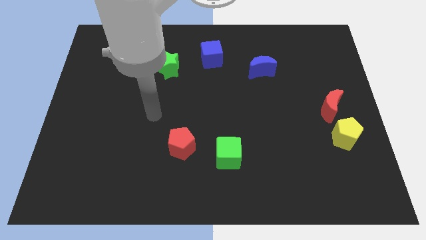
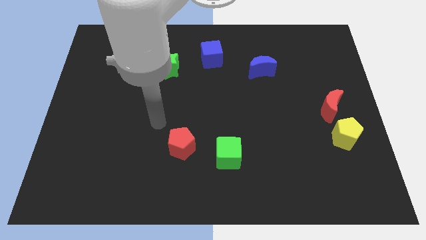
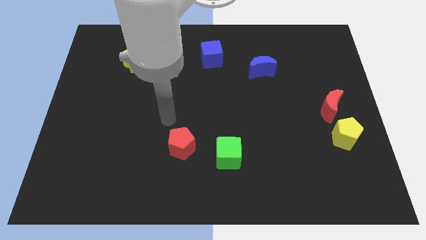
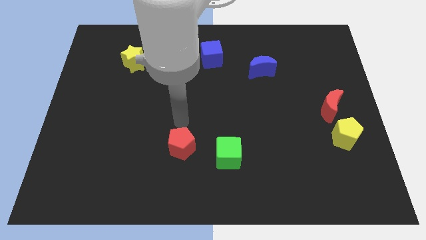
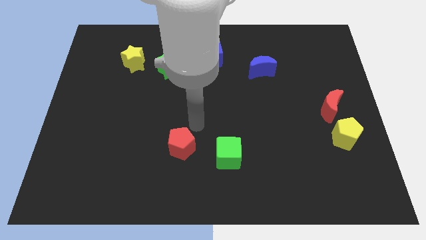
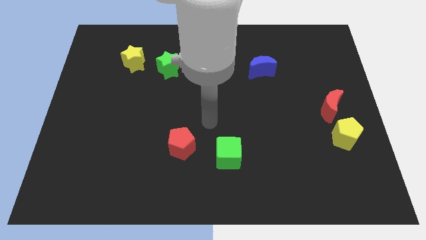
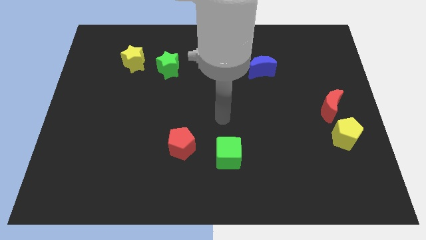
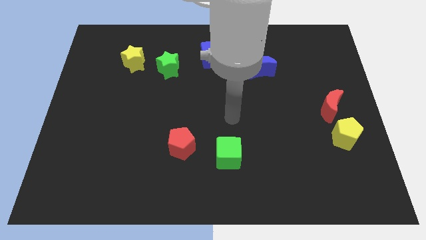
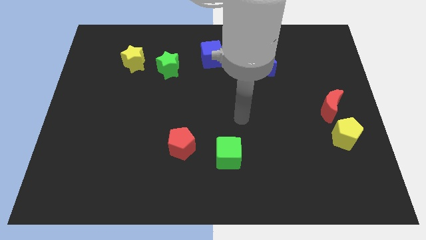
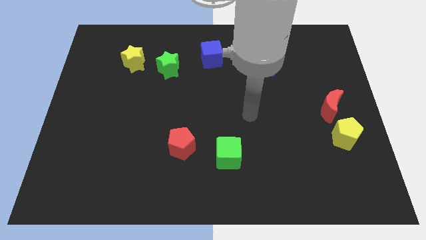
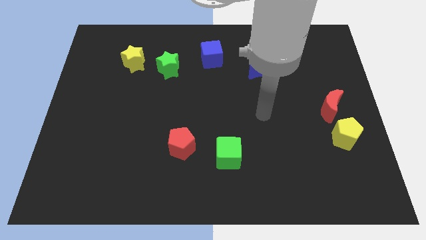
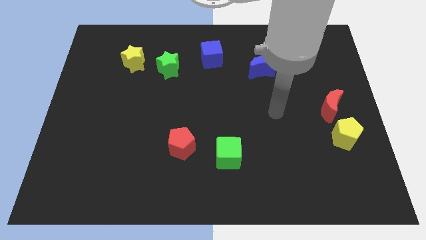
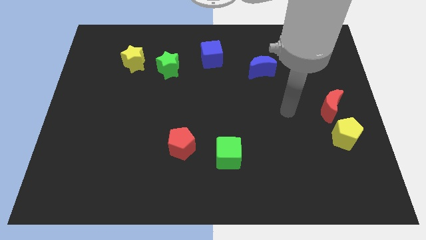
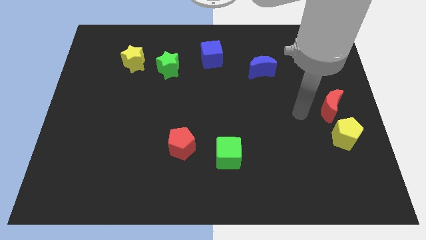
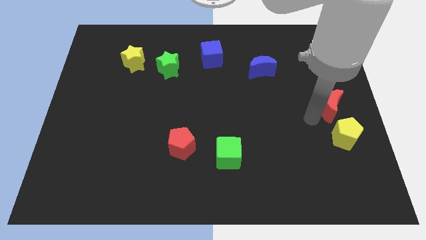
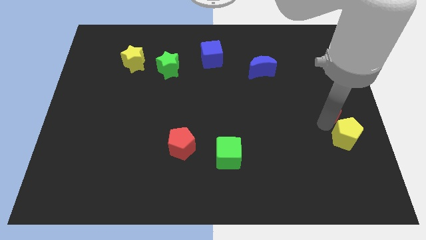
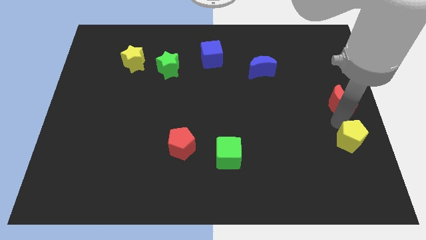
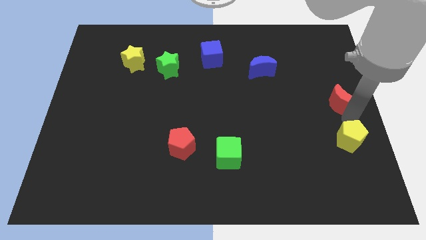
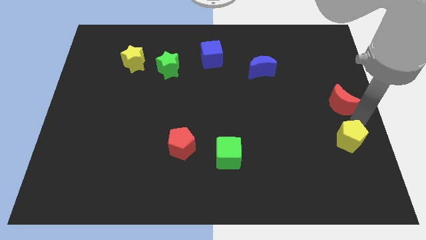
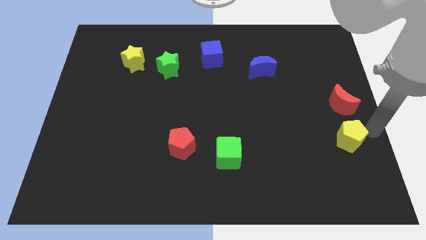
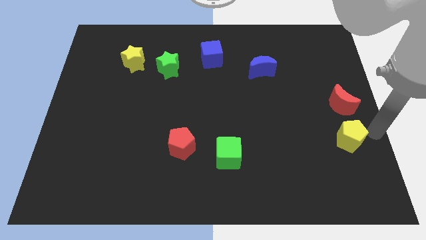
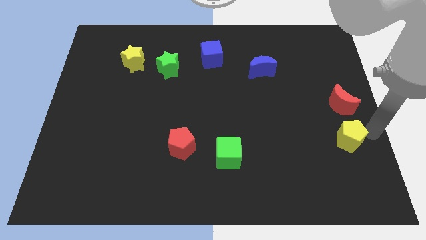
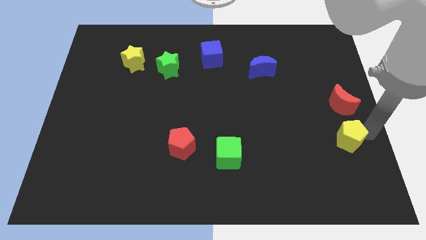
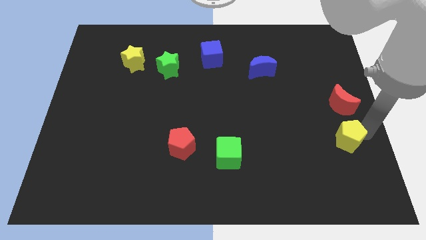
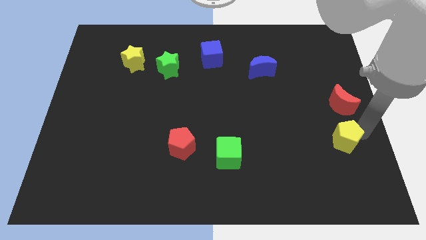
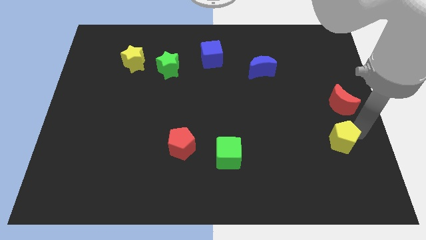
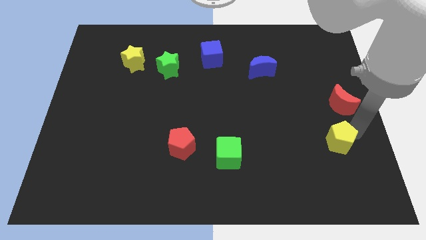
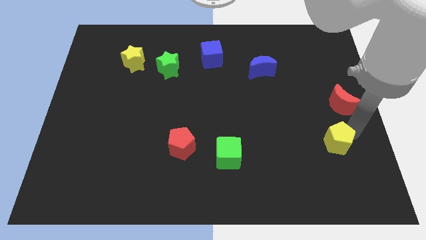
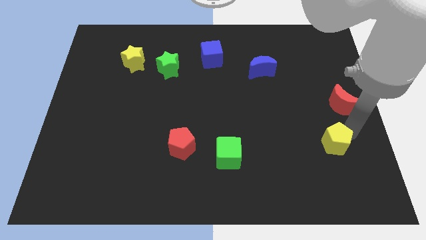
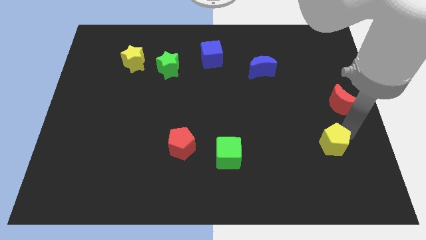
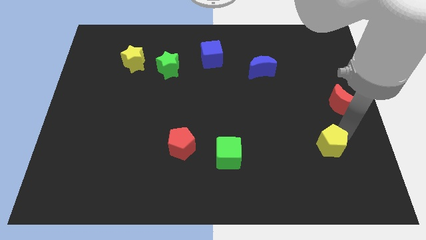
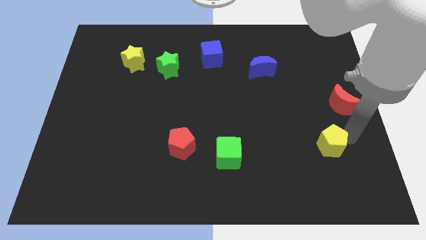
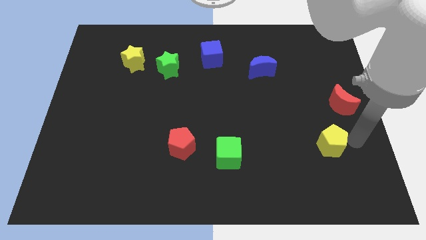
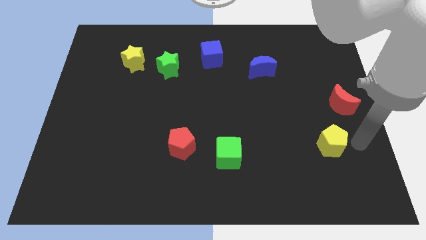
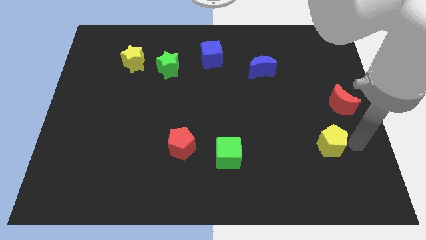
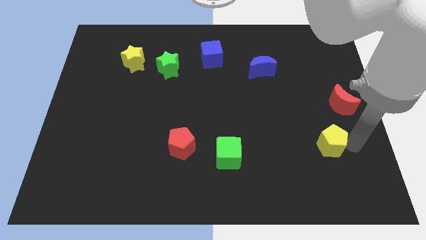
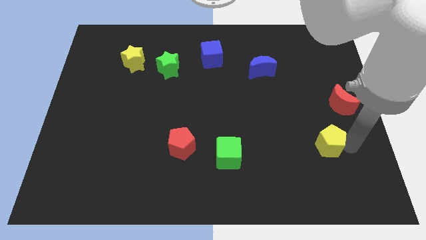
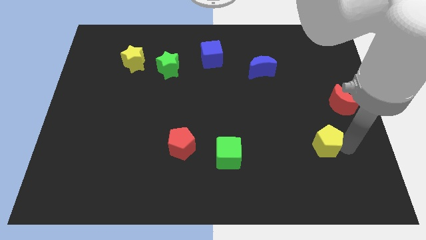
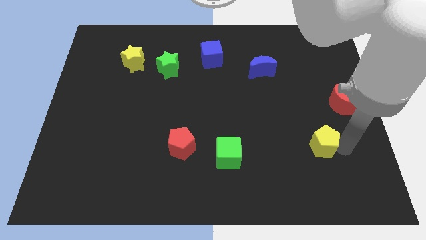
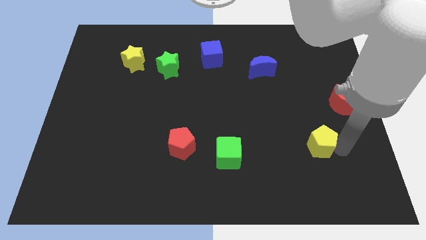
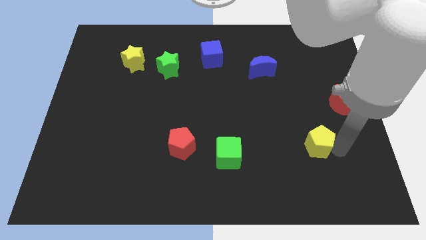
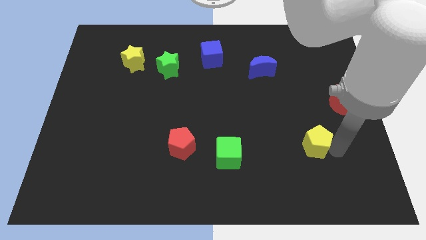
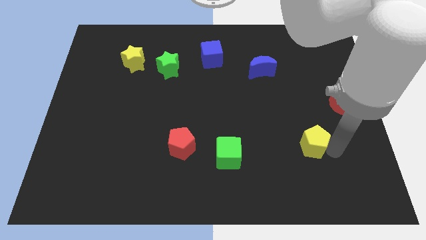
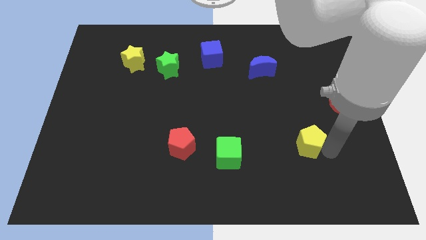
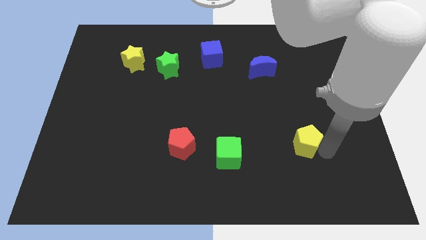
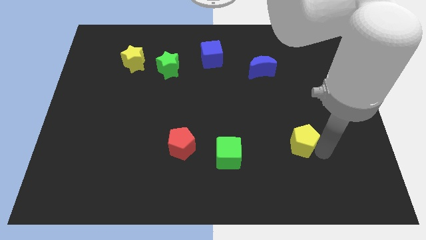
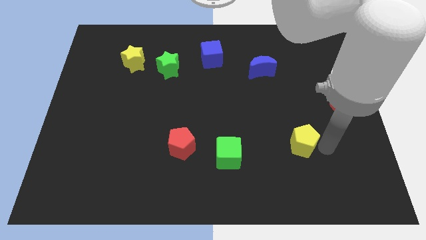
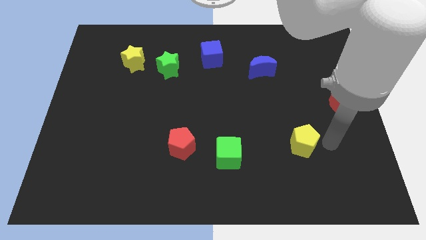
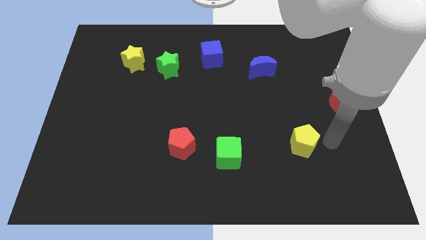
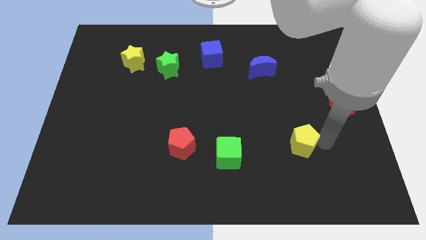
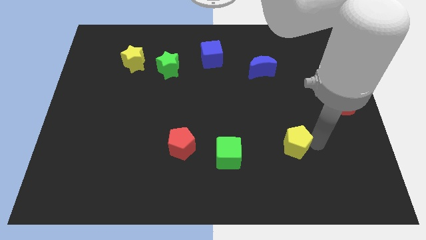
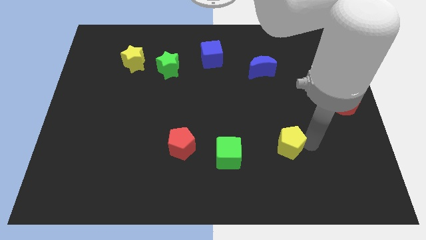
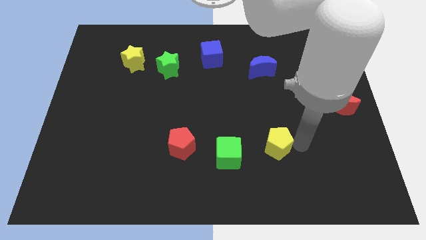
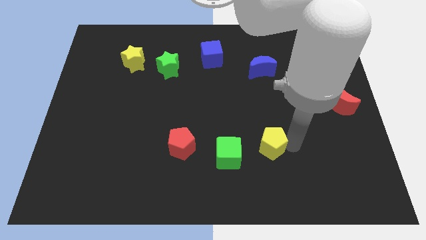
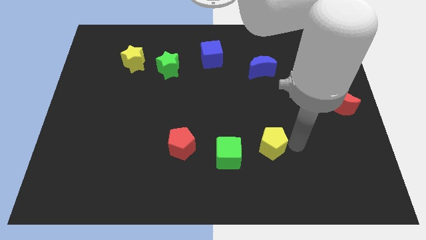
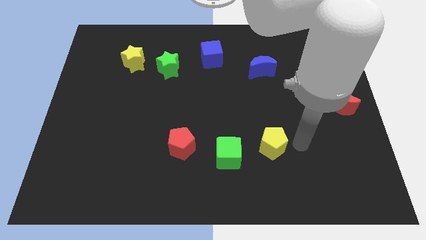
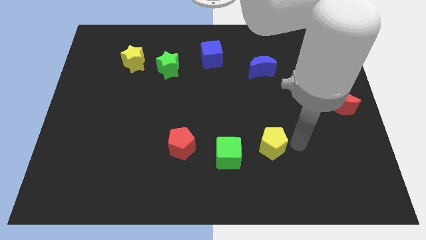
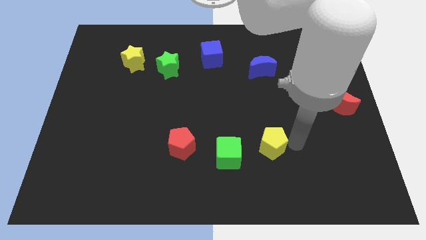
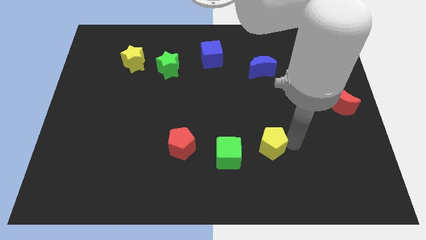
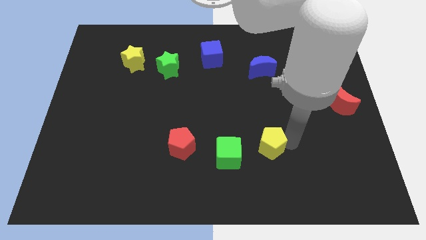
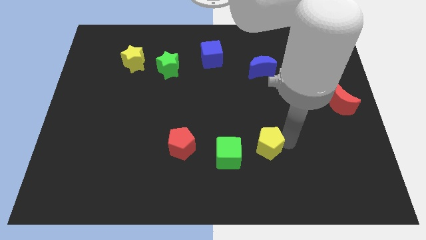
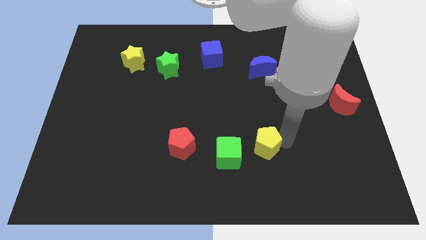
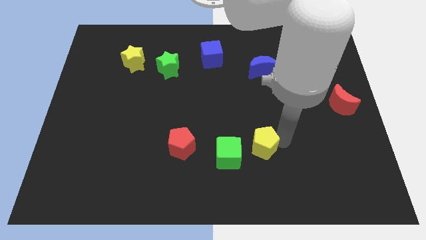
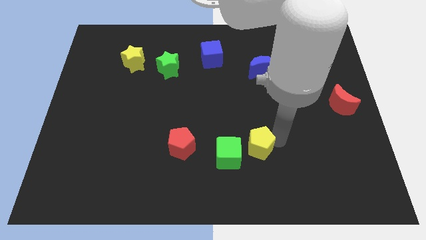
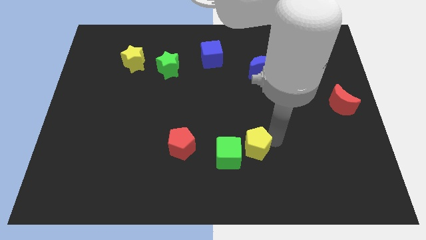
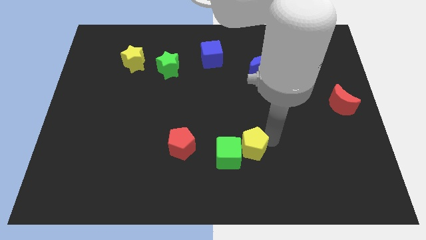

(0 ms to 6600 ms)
slide the yellow pentagon next to the green cube

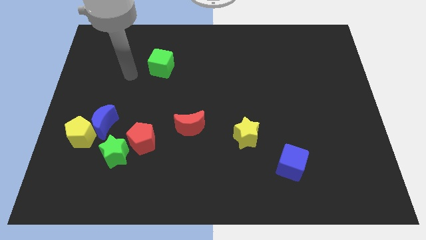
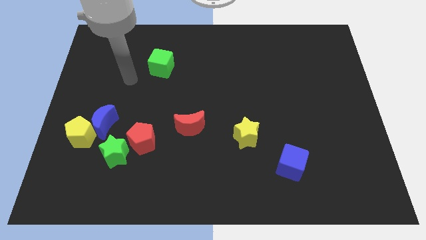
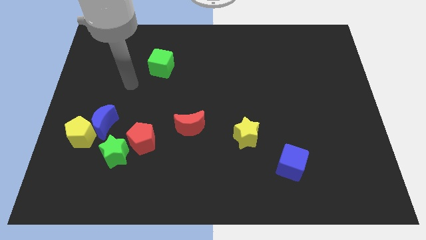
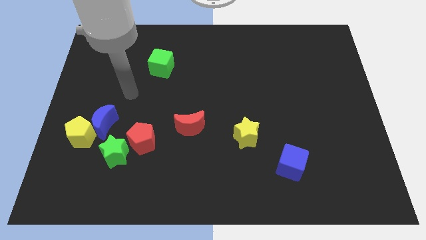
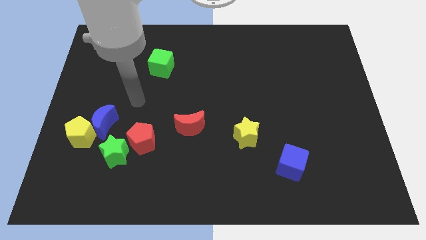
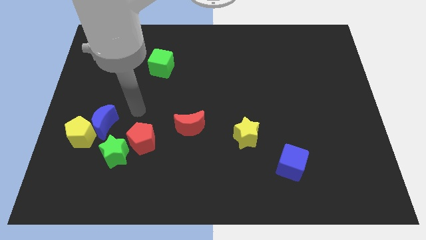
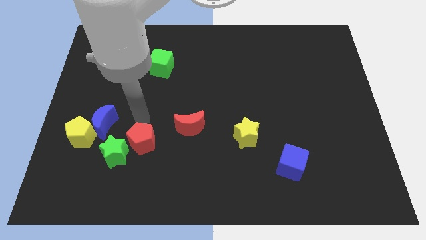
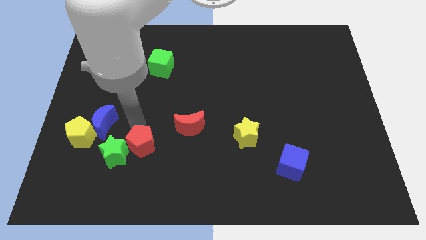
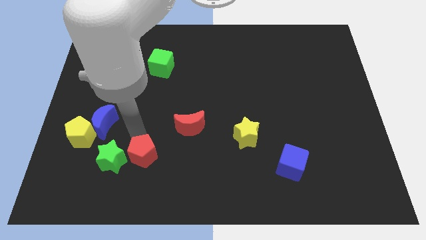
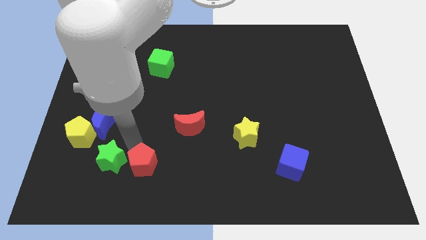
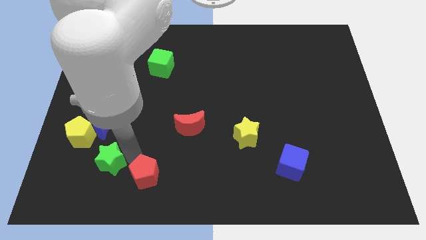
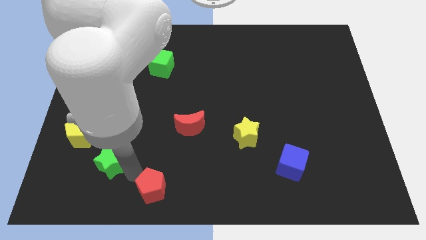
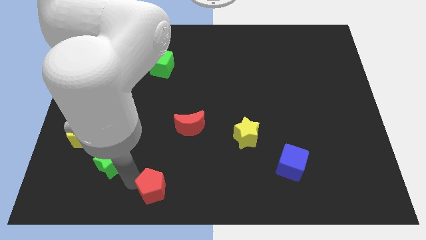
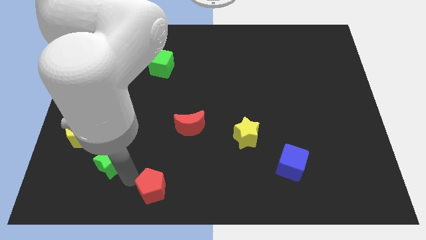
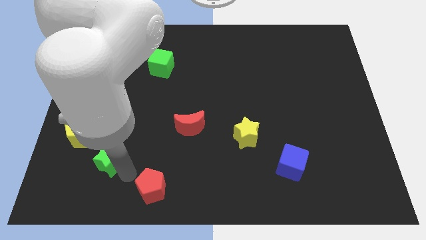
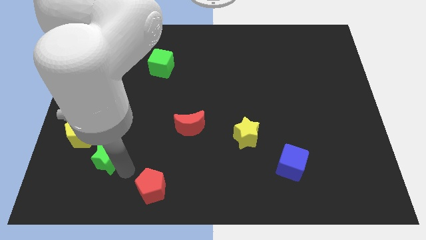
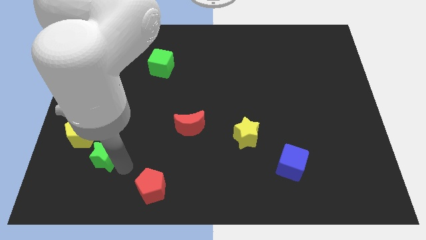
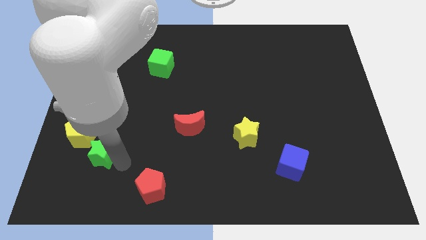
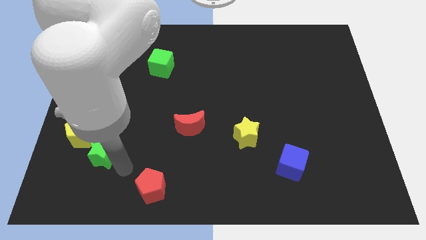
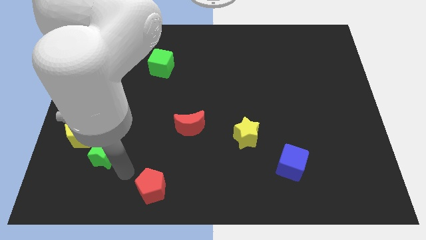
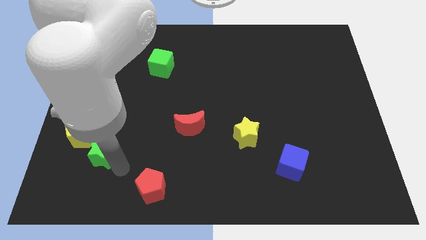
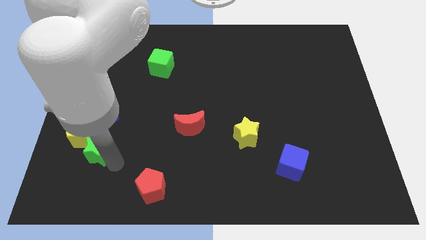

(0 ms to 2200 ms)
push the green star close to the yellow pentagon
